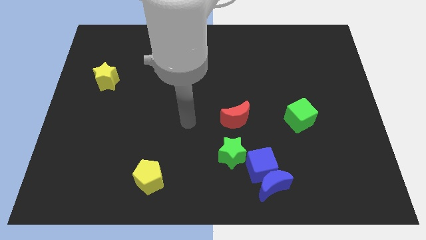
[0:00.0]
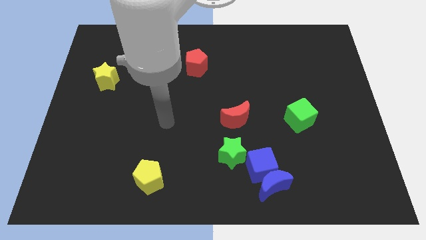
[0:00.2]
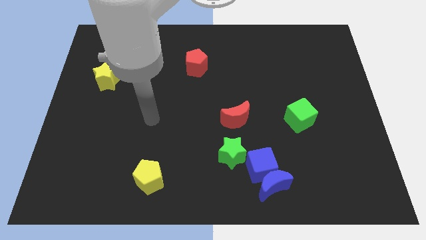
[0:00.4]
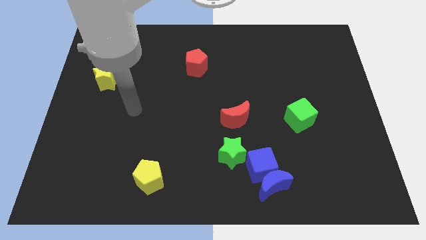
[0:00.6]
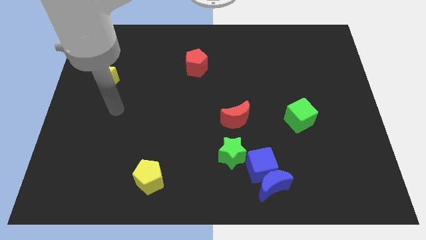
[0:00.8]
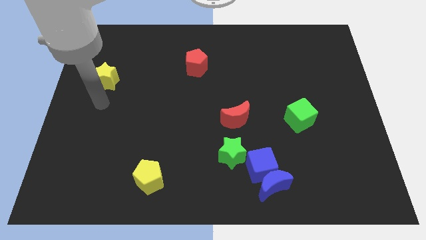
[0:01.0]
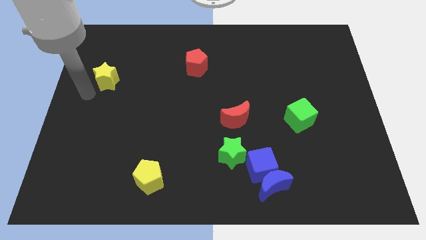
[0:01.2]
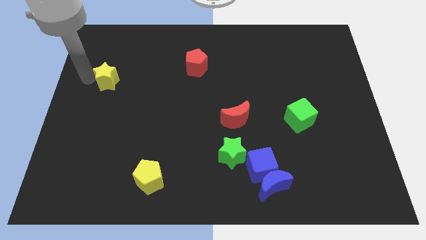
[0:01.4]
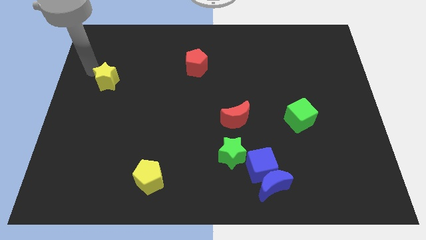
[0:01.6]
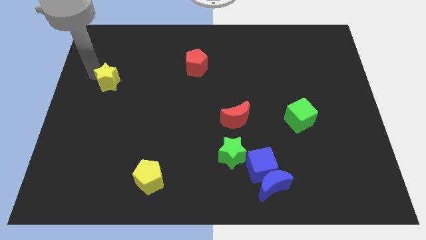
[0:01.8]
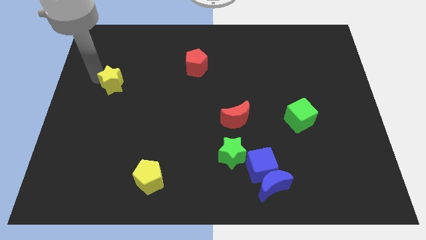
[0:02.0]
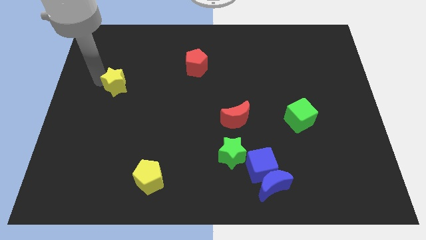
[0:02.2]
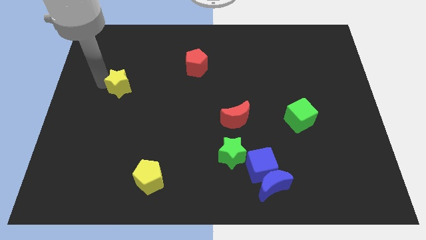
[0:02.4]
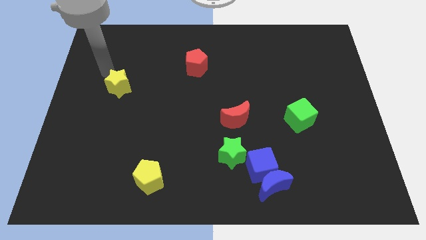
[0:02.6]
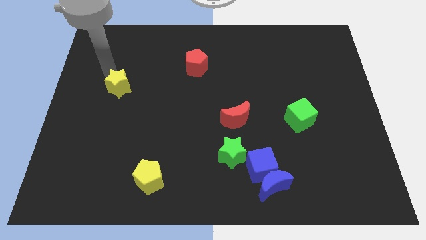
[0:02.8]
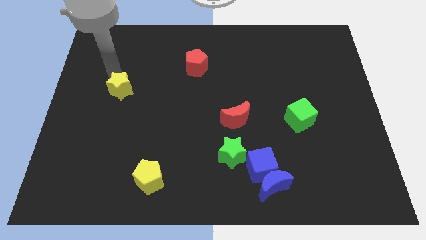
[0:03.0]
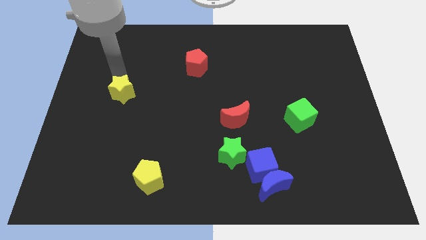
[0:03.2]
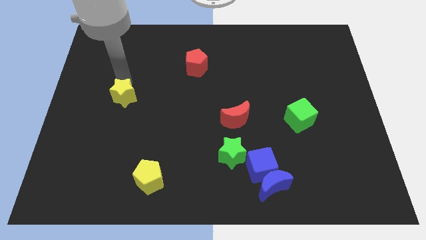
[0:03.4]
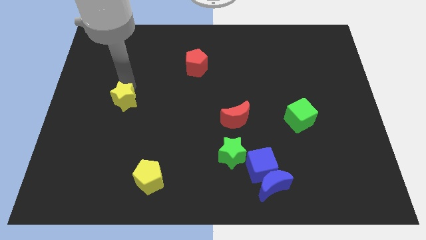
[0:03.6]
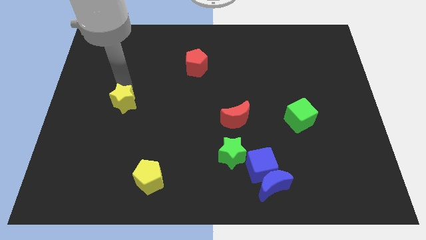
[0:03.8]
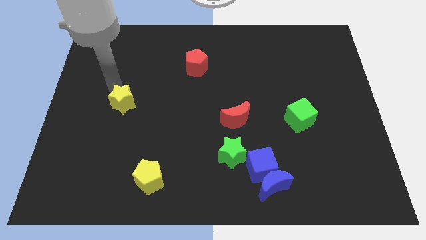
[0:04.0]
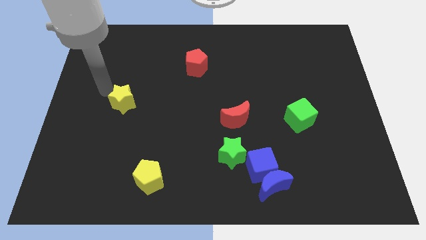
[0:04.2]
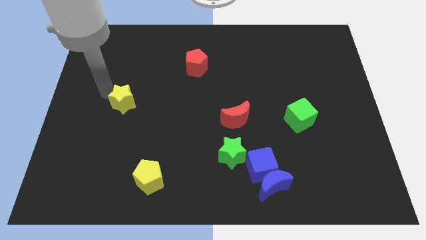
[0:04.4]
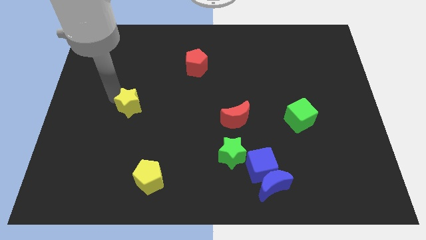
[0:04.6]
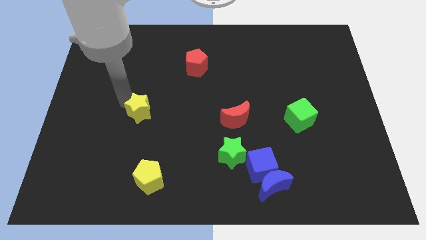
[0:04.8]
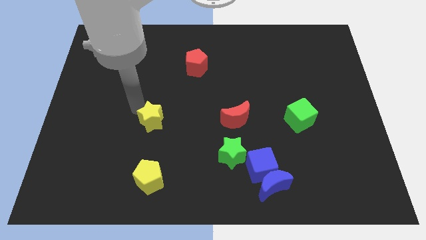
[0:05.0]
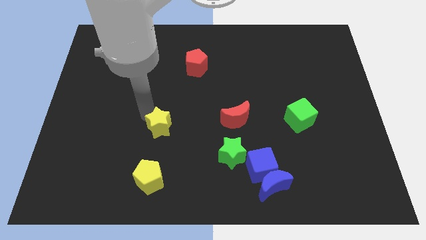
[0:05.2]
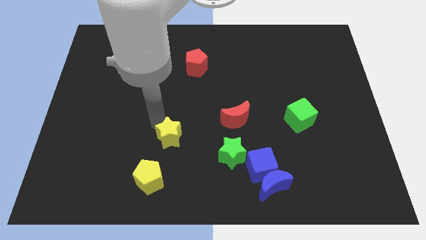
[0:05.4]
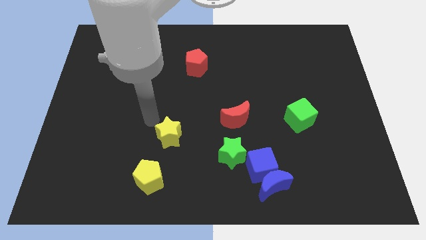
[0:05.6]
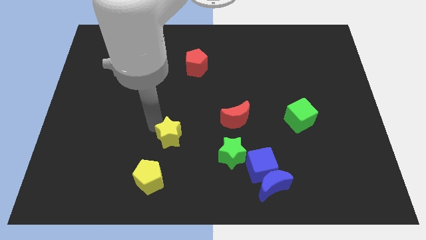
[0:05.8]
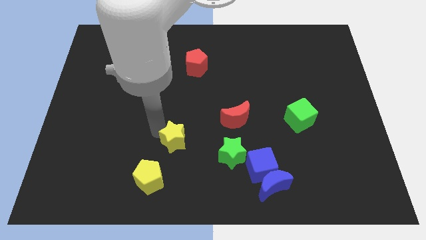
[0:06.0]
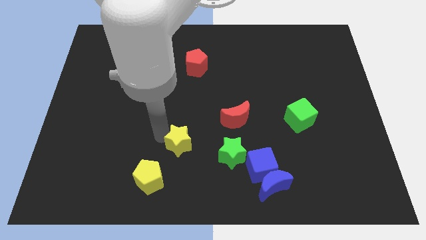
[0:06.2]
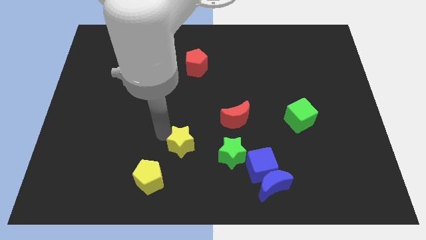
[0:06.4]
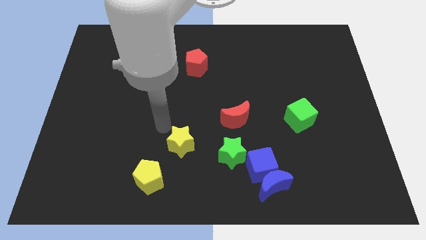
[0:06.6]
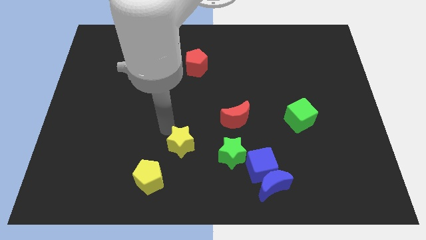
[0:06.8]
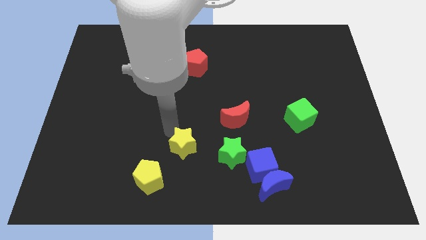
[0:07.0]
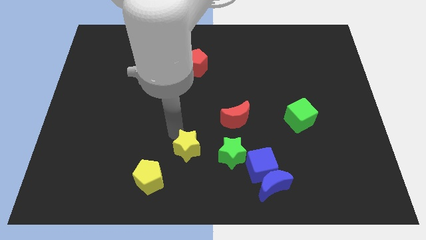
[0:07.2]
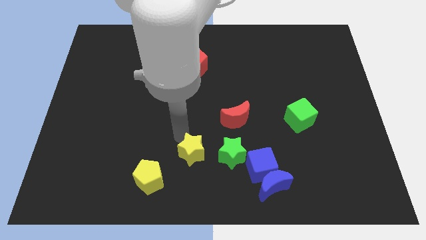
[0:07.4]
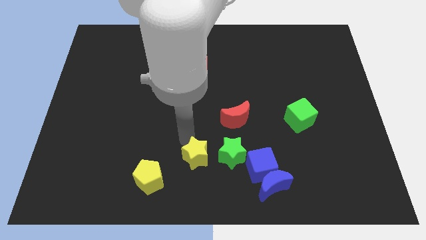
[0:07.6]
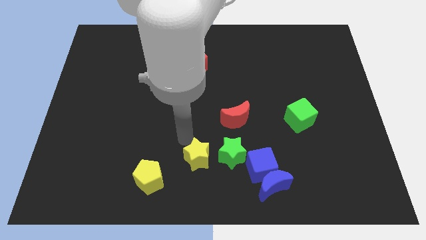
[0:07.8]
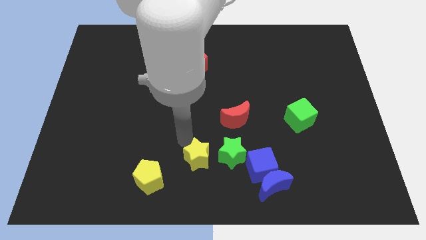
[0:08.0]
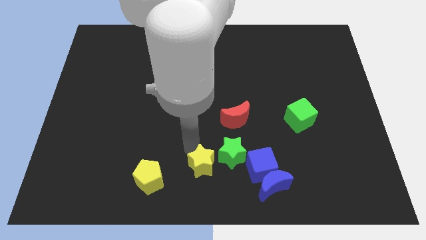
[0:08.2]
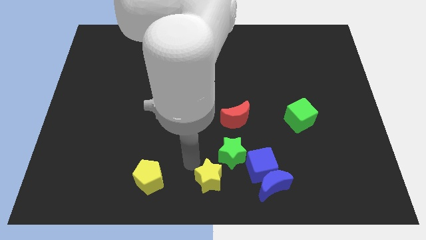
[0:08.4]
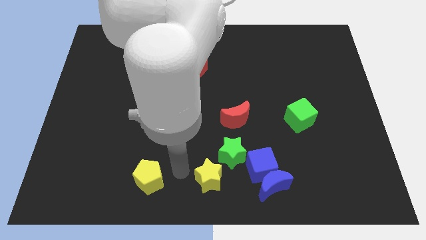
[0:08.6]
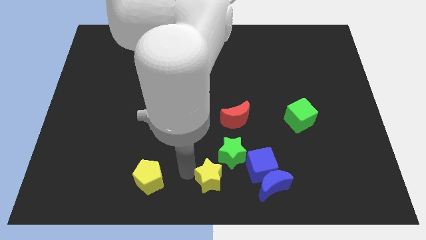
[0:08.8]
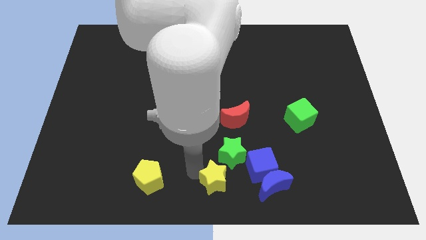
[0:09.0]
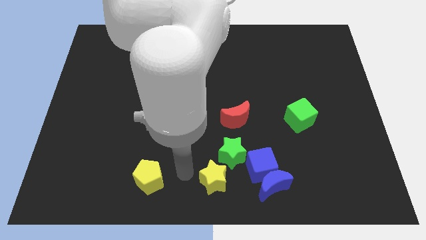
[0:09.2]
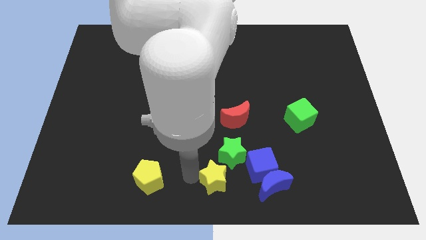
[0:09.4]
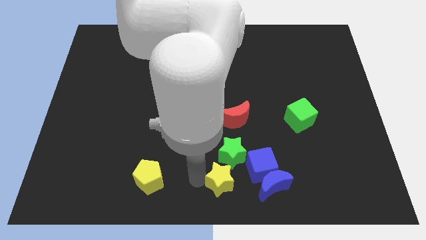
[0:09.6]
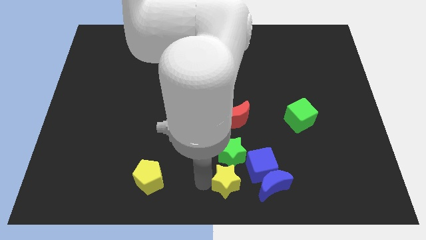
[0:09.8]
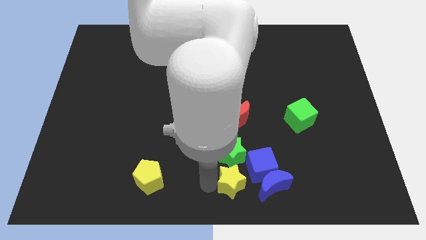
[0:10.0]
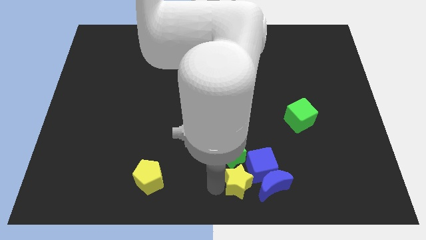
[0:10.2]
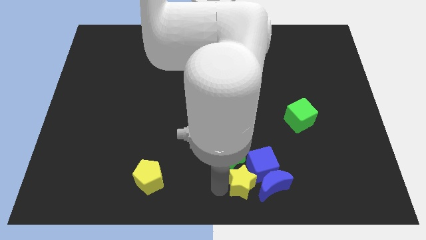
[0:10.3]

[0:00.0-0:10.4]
move the yellow star next to the blue moon

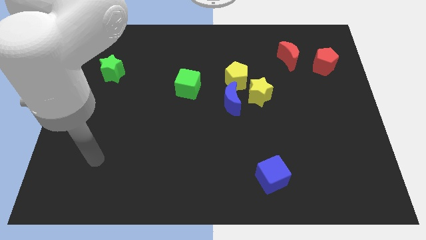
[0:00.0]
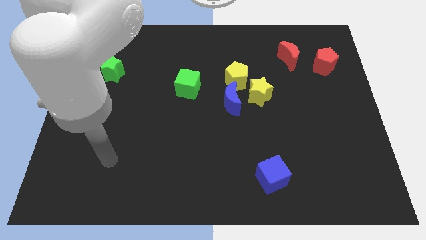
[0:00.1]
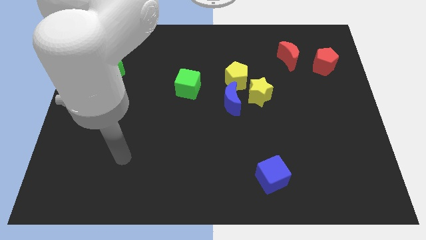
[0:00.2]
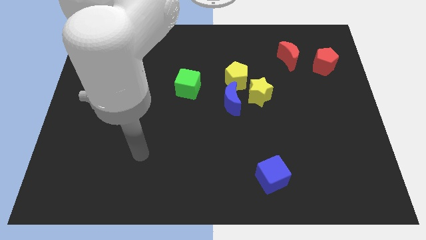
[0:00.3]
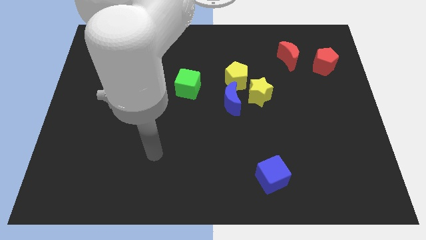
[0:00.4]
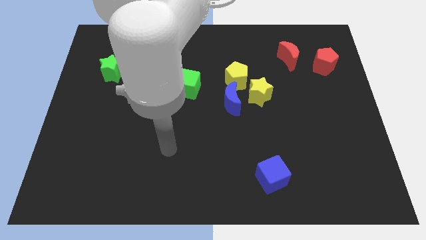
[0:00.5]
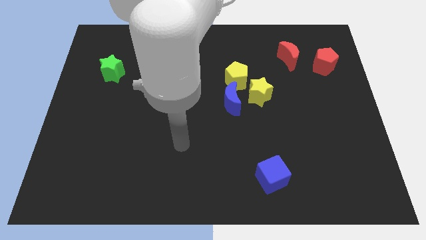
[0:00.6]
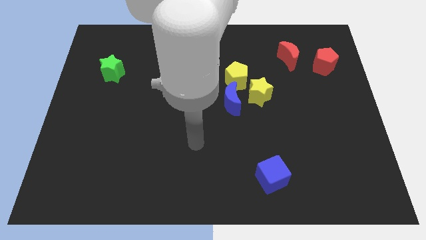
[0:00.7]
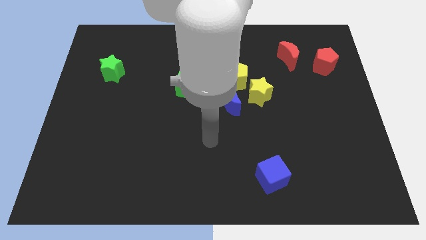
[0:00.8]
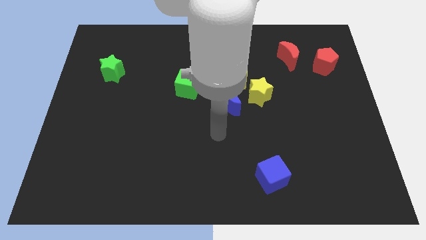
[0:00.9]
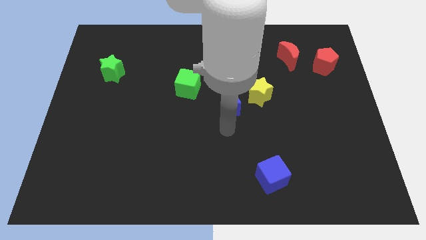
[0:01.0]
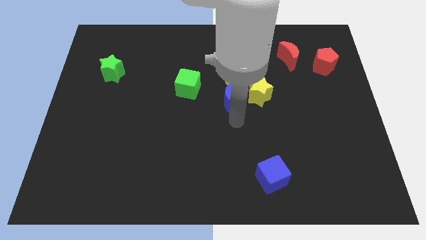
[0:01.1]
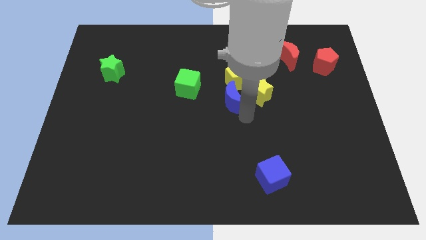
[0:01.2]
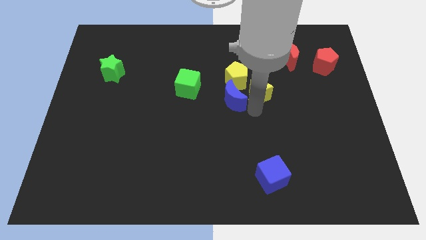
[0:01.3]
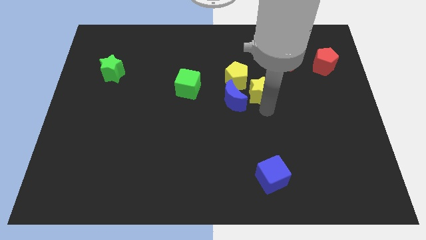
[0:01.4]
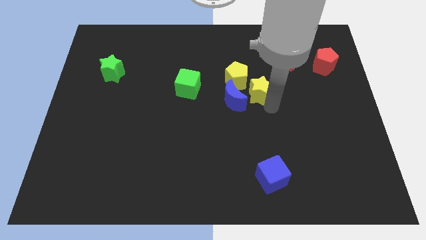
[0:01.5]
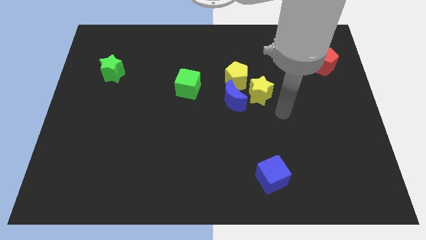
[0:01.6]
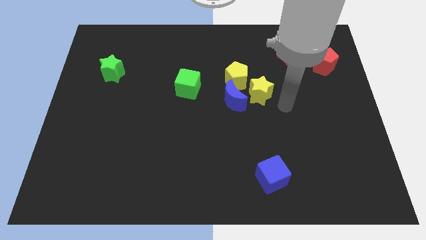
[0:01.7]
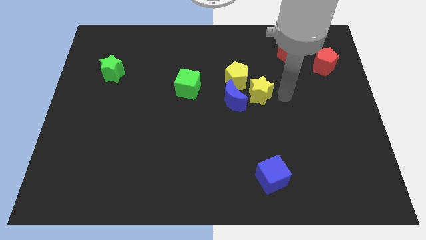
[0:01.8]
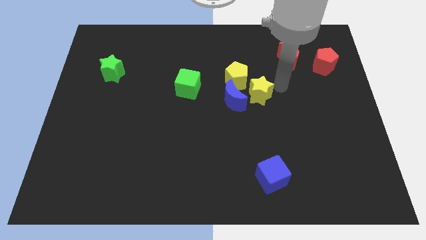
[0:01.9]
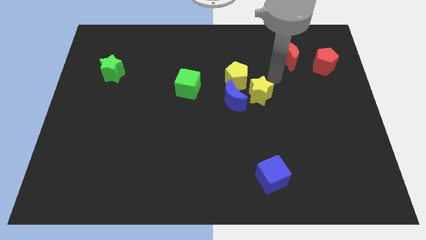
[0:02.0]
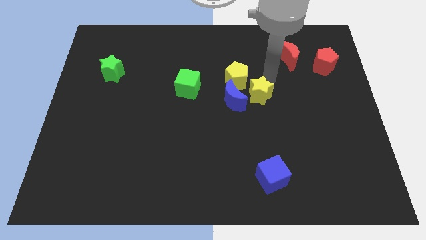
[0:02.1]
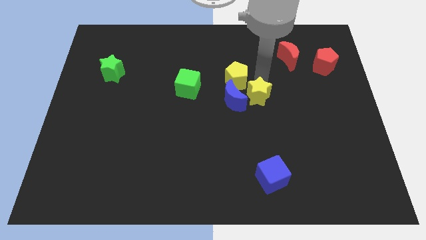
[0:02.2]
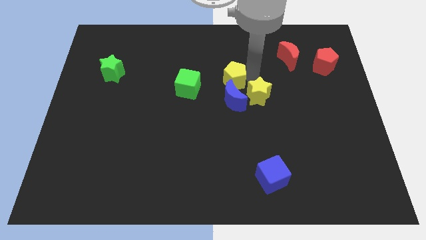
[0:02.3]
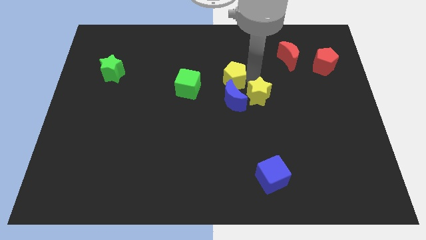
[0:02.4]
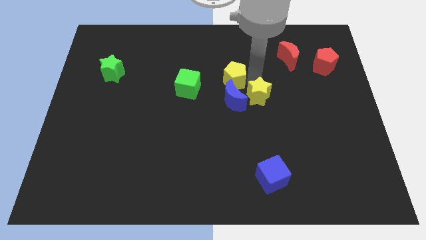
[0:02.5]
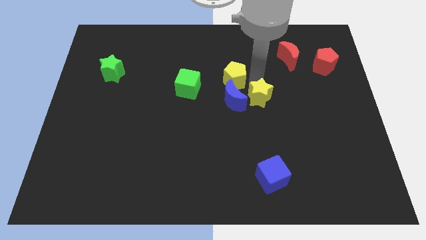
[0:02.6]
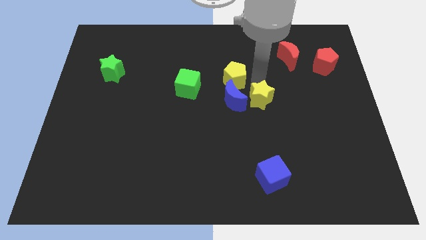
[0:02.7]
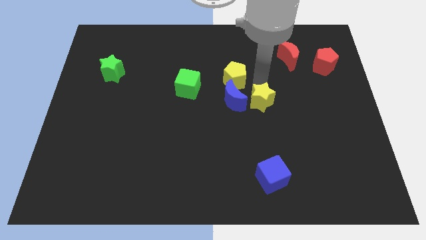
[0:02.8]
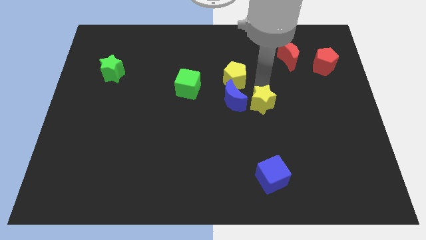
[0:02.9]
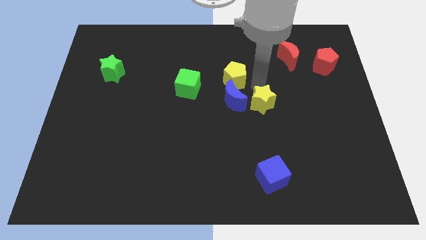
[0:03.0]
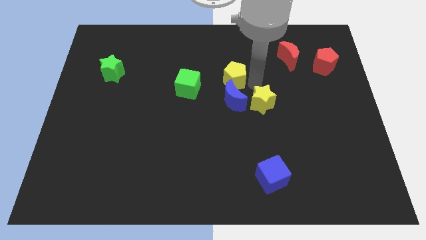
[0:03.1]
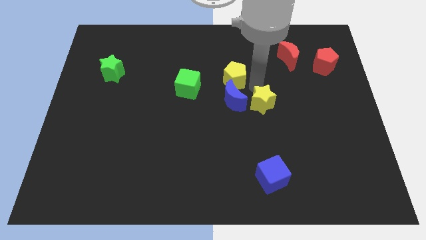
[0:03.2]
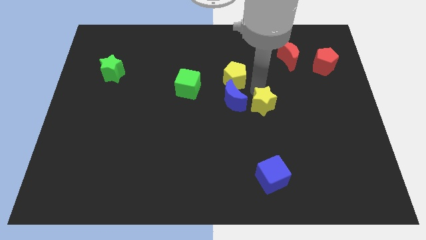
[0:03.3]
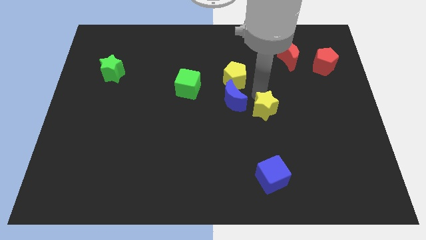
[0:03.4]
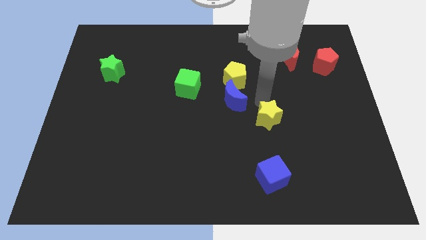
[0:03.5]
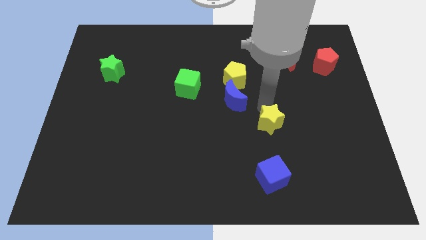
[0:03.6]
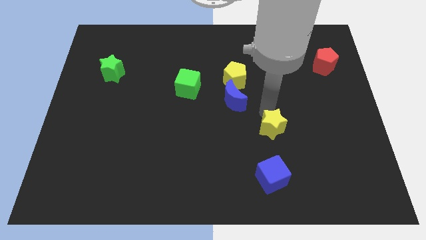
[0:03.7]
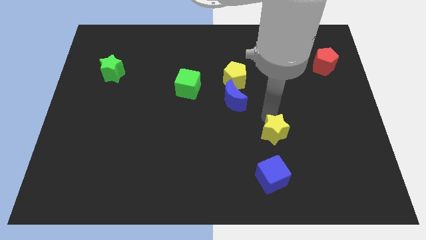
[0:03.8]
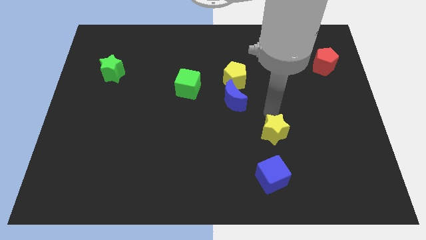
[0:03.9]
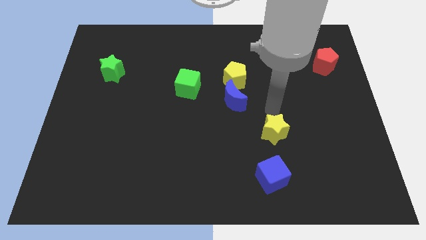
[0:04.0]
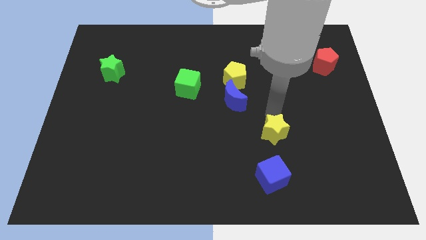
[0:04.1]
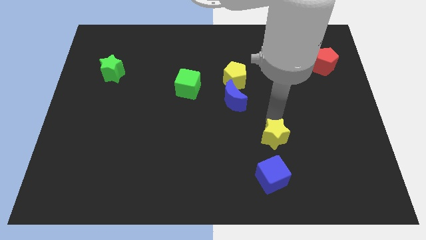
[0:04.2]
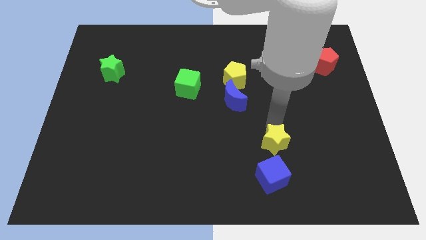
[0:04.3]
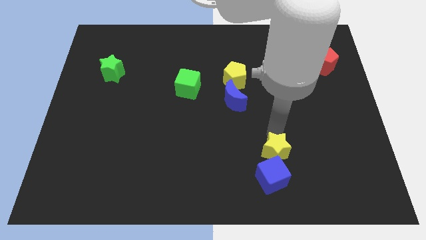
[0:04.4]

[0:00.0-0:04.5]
move the yellow star close to the blue cube
